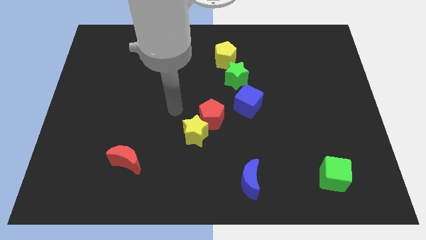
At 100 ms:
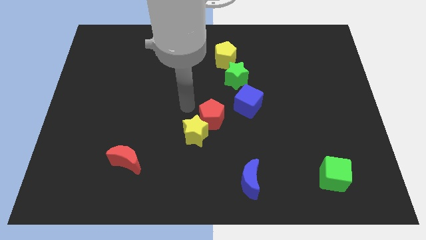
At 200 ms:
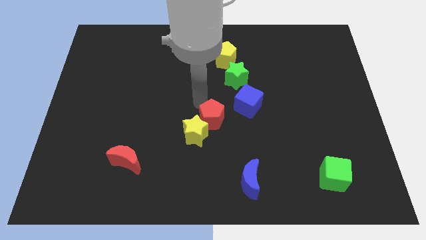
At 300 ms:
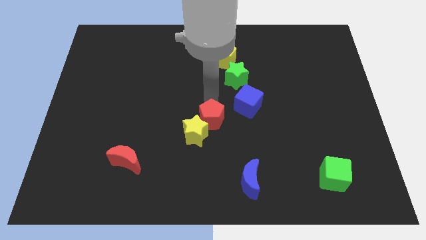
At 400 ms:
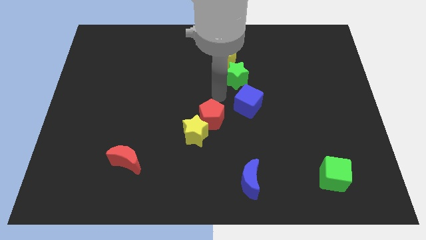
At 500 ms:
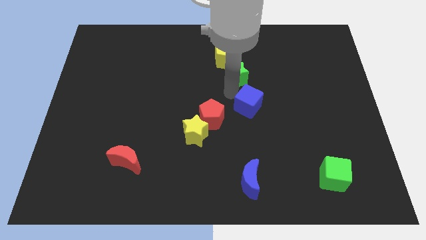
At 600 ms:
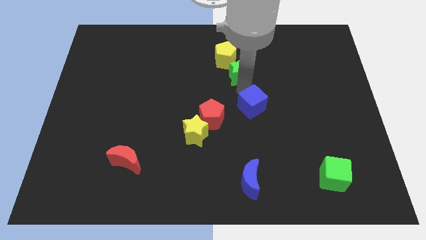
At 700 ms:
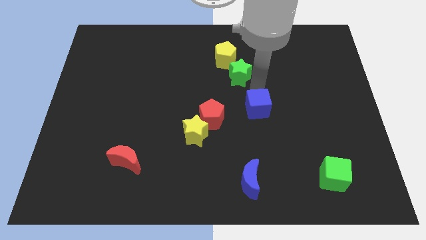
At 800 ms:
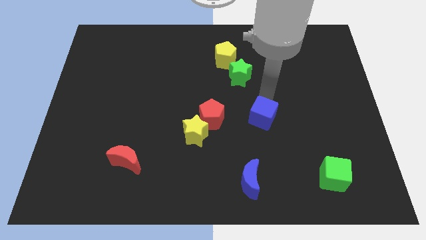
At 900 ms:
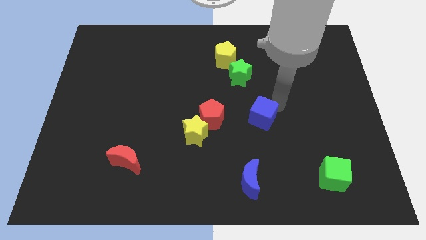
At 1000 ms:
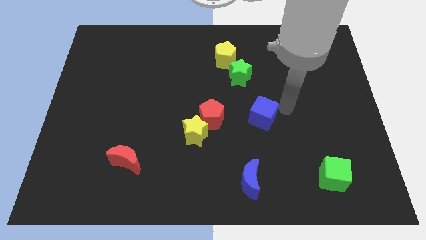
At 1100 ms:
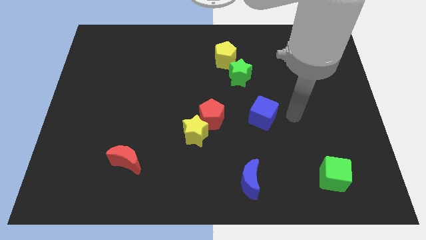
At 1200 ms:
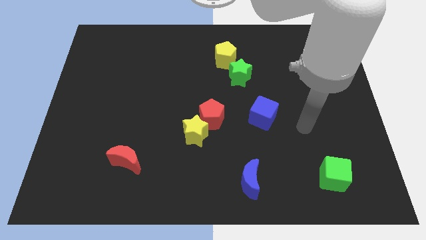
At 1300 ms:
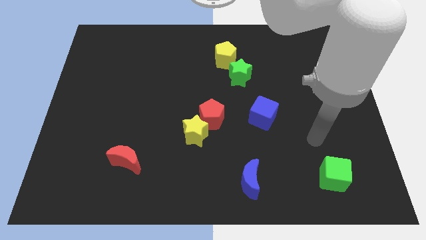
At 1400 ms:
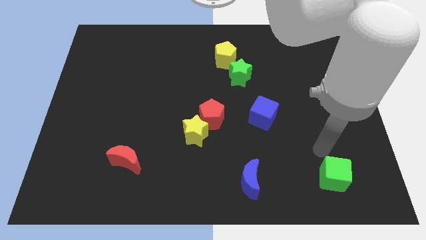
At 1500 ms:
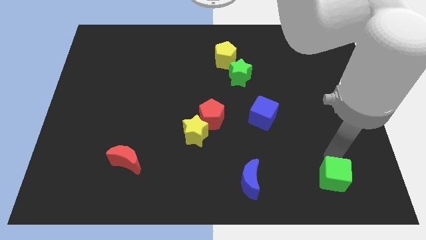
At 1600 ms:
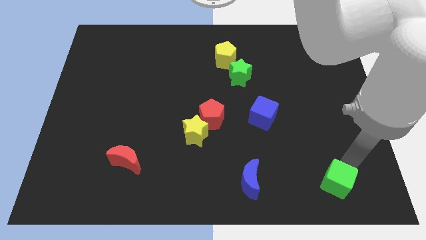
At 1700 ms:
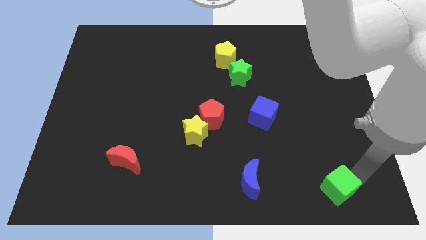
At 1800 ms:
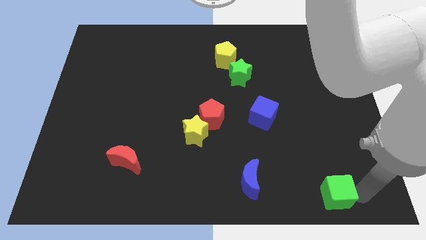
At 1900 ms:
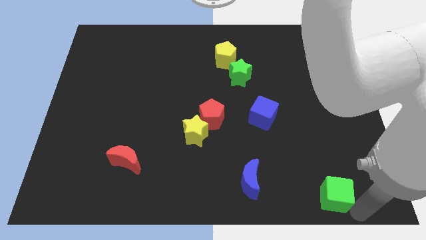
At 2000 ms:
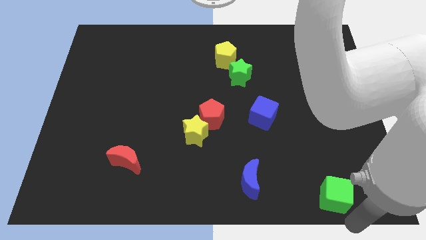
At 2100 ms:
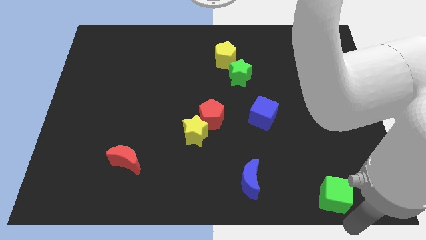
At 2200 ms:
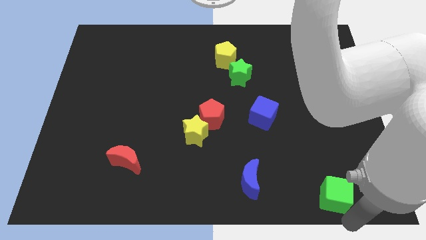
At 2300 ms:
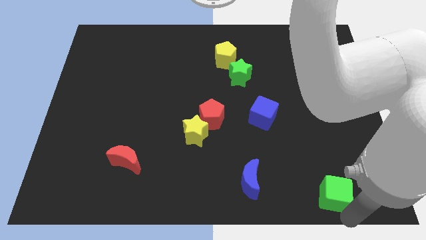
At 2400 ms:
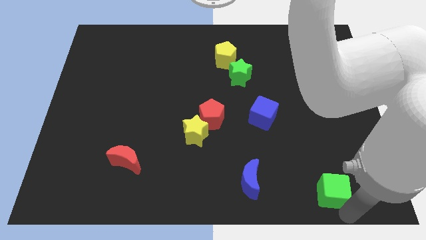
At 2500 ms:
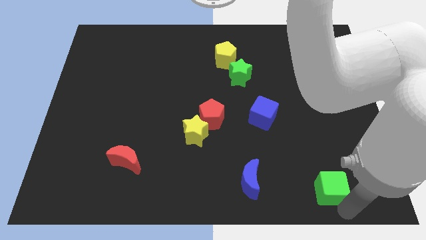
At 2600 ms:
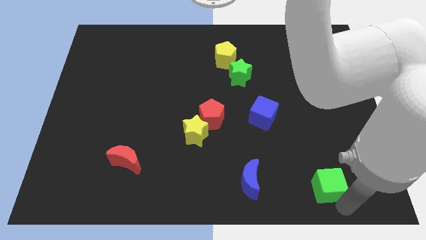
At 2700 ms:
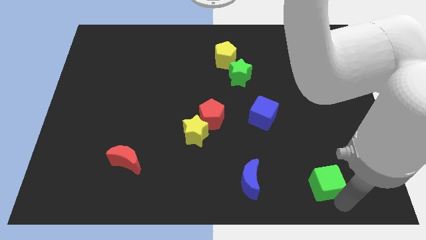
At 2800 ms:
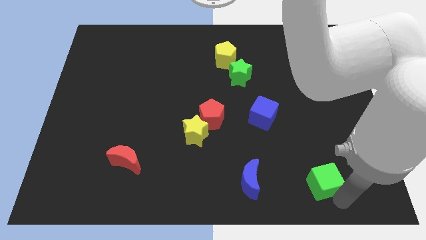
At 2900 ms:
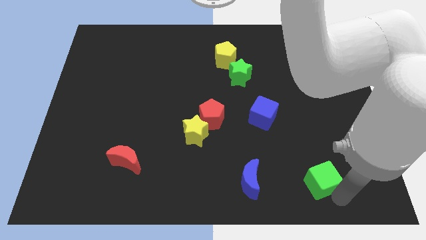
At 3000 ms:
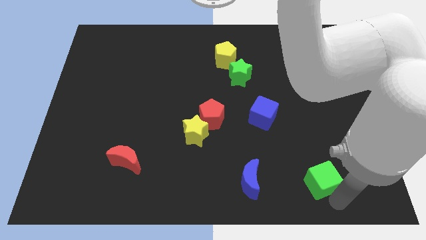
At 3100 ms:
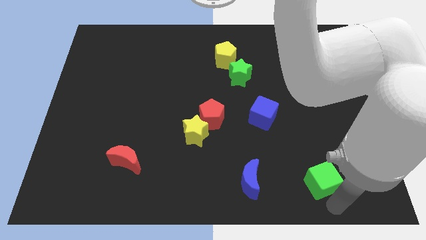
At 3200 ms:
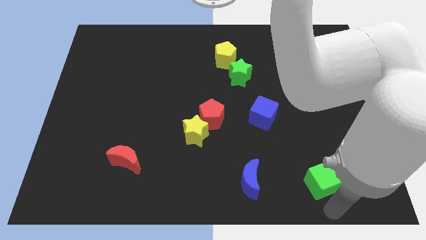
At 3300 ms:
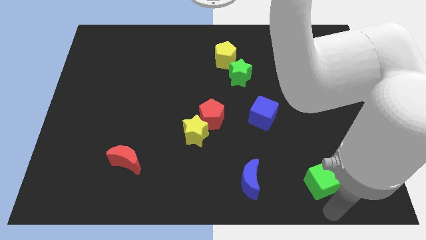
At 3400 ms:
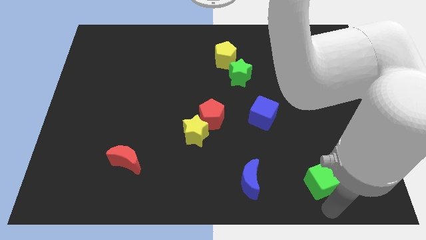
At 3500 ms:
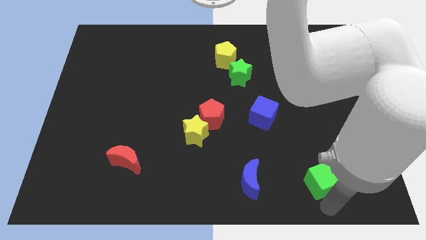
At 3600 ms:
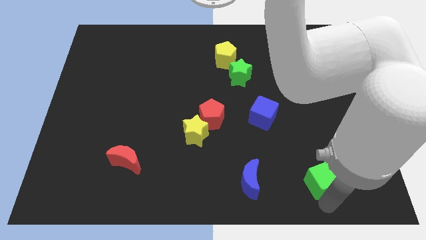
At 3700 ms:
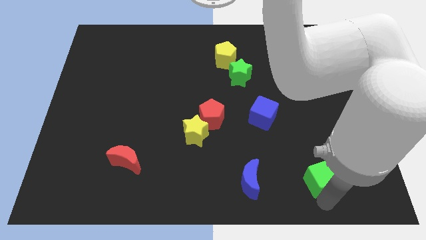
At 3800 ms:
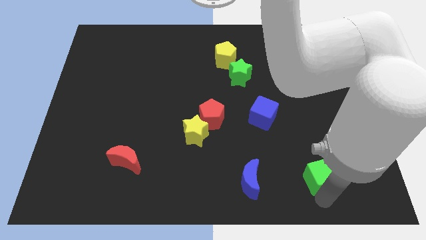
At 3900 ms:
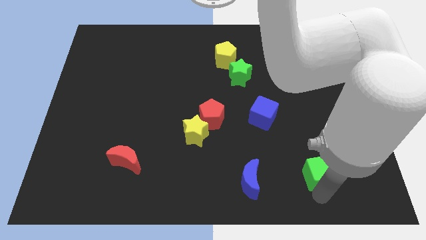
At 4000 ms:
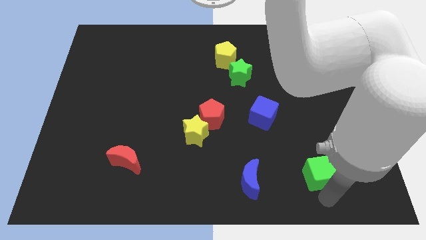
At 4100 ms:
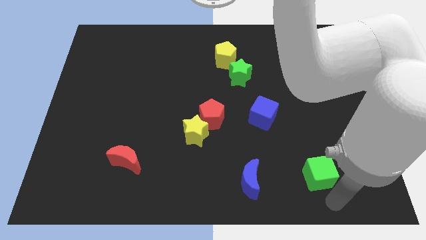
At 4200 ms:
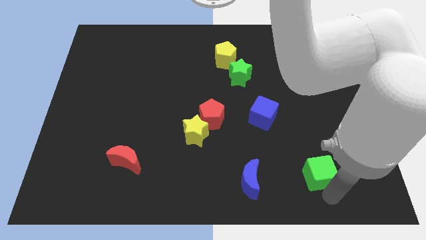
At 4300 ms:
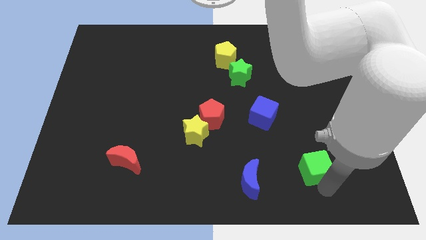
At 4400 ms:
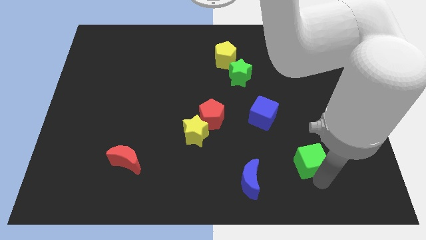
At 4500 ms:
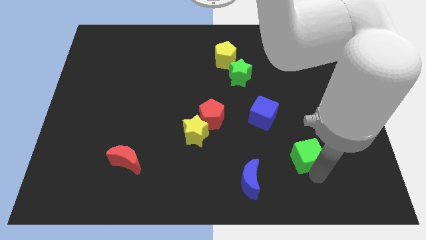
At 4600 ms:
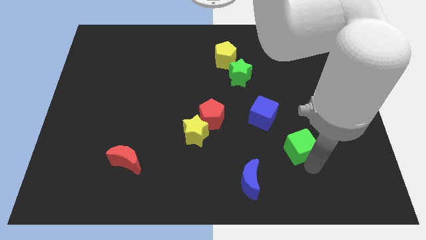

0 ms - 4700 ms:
slide the green cube a little up and then to the left

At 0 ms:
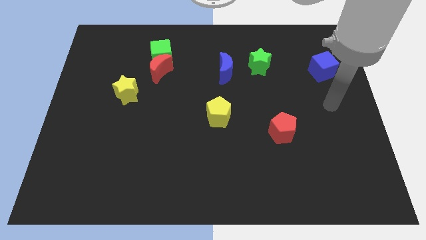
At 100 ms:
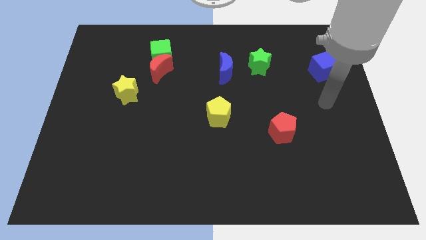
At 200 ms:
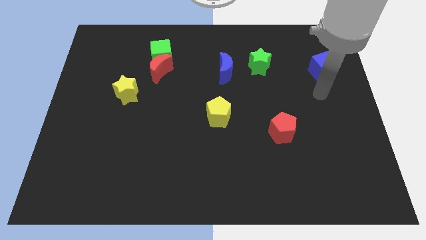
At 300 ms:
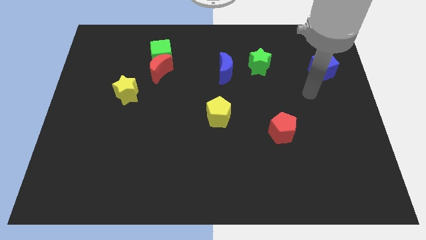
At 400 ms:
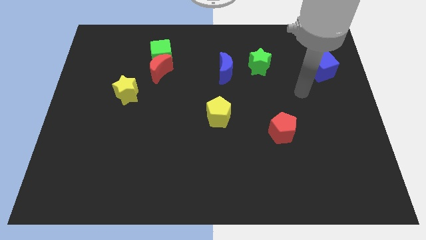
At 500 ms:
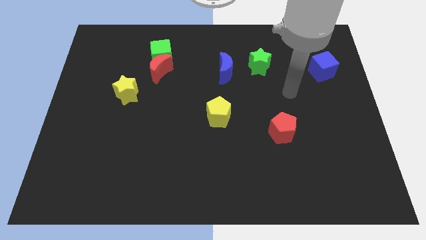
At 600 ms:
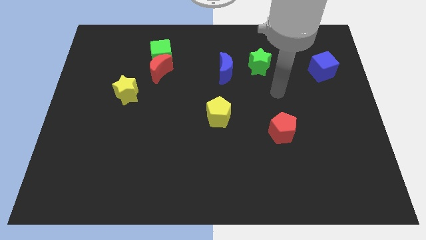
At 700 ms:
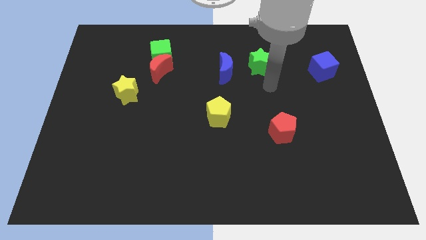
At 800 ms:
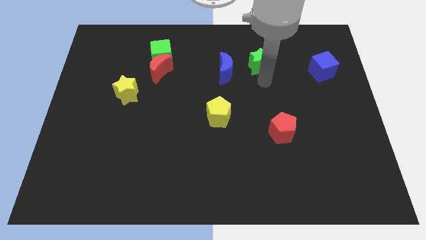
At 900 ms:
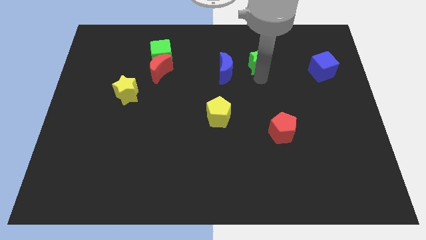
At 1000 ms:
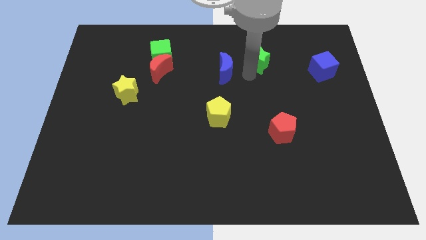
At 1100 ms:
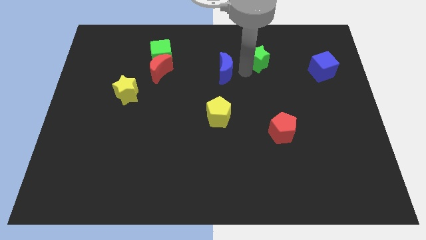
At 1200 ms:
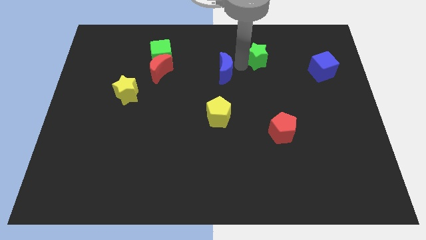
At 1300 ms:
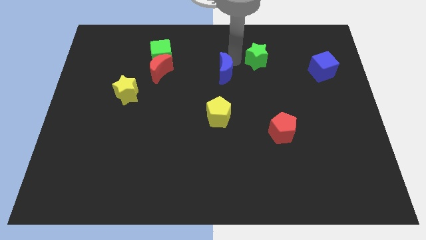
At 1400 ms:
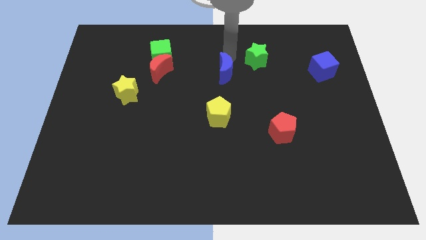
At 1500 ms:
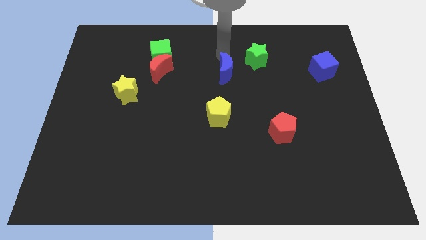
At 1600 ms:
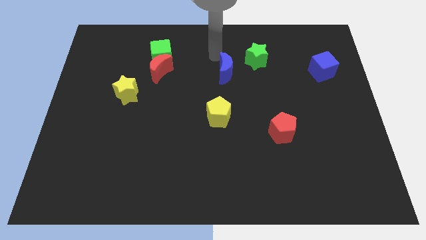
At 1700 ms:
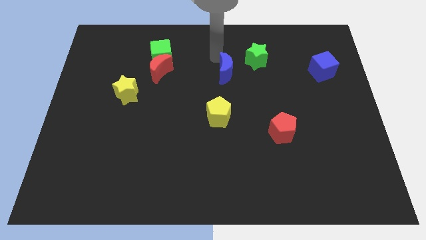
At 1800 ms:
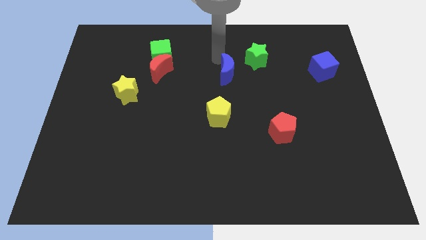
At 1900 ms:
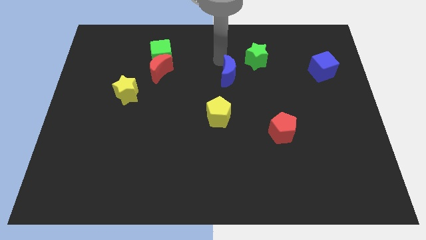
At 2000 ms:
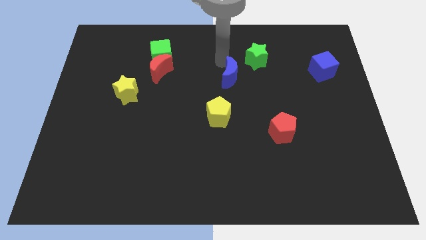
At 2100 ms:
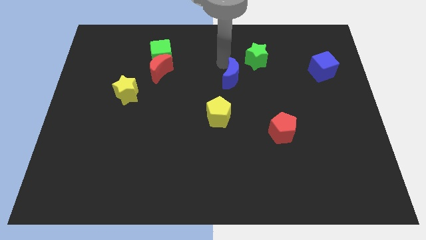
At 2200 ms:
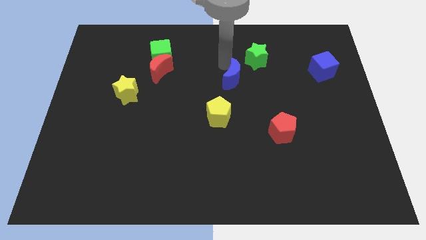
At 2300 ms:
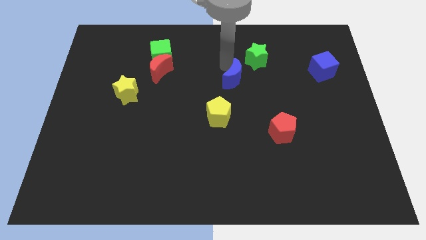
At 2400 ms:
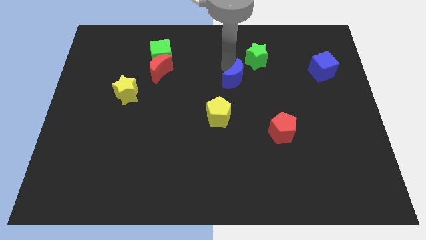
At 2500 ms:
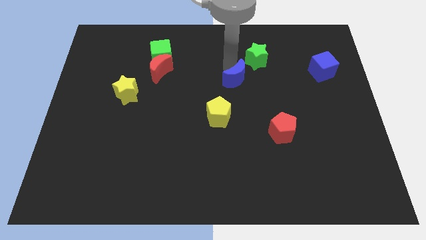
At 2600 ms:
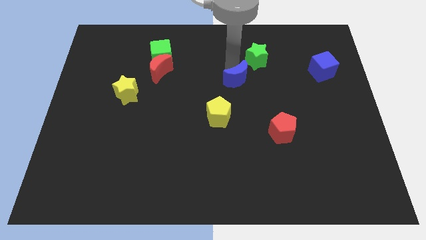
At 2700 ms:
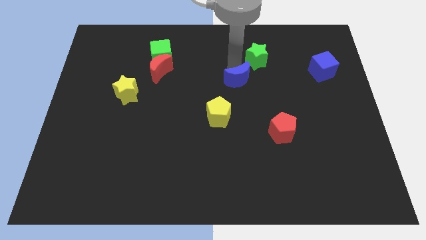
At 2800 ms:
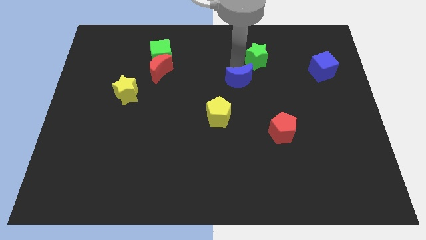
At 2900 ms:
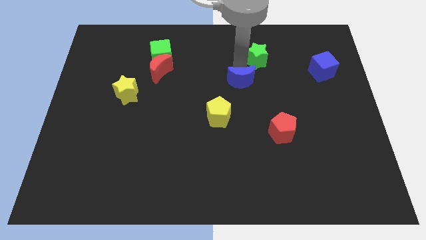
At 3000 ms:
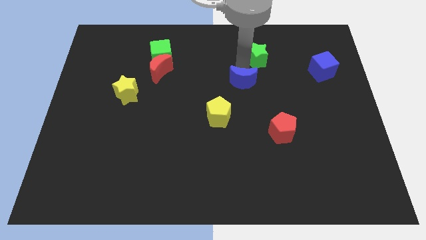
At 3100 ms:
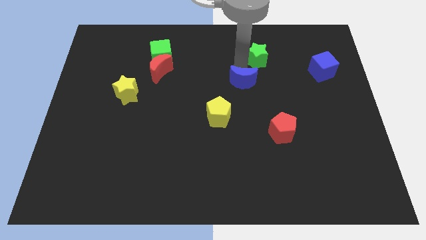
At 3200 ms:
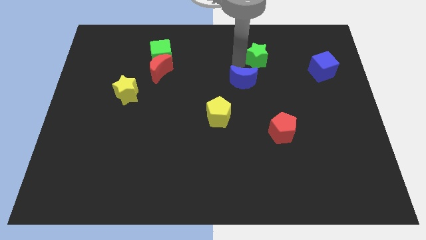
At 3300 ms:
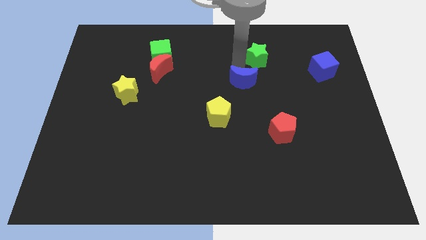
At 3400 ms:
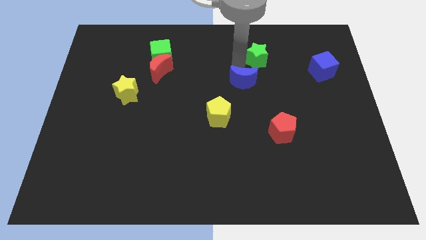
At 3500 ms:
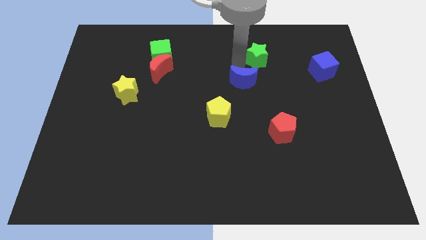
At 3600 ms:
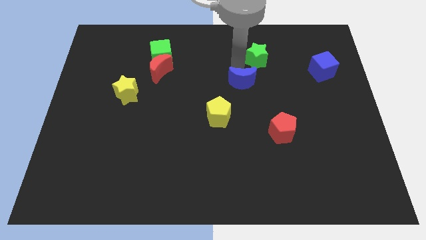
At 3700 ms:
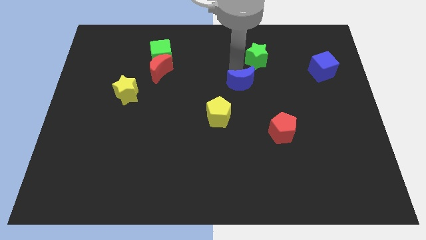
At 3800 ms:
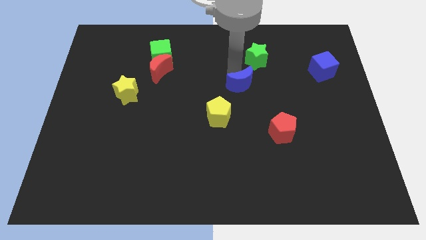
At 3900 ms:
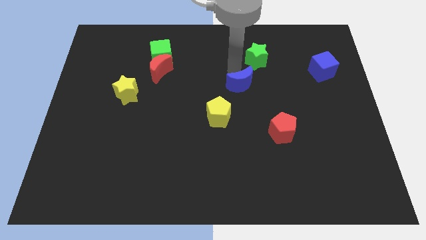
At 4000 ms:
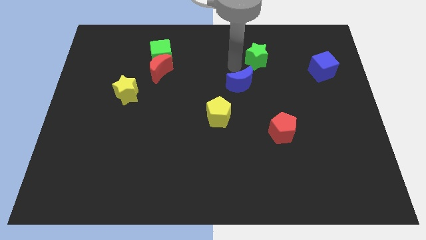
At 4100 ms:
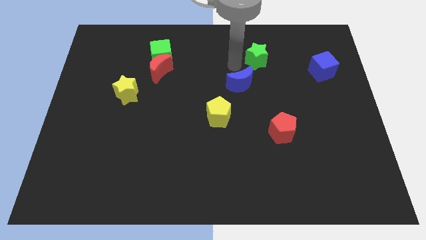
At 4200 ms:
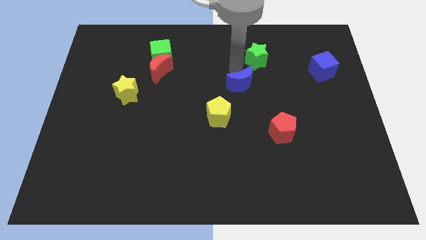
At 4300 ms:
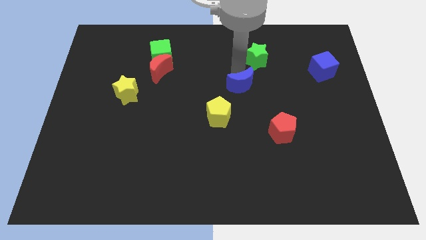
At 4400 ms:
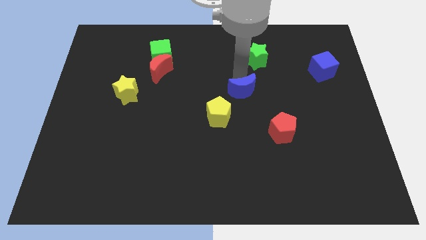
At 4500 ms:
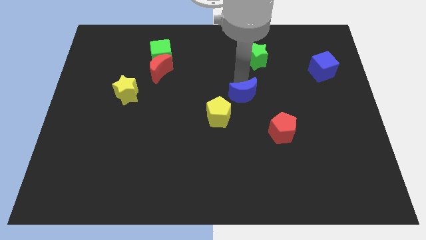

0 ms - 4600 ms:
slightly move the blue moon down
